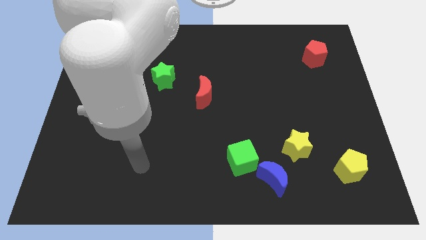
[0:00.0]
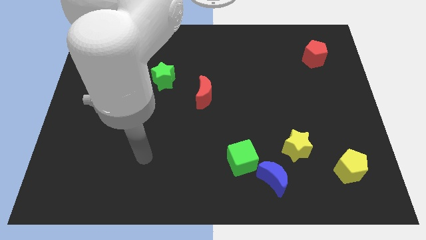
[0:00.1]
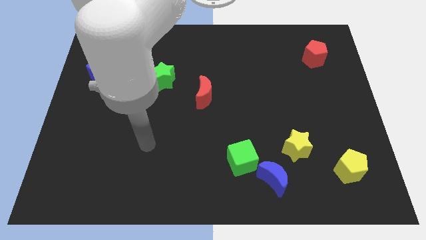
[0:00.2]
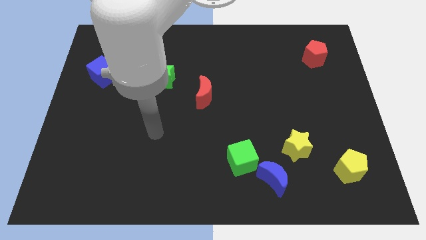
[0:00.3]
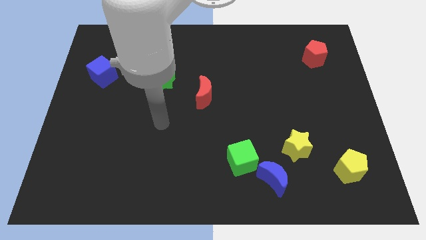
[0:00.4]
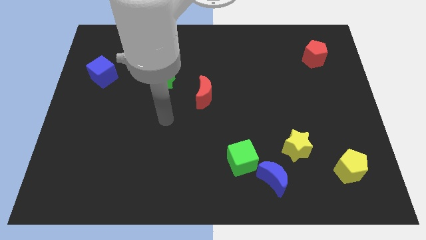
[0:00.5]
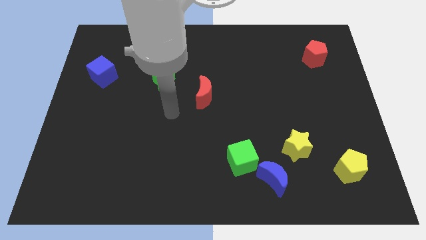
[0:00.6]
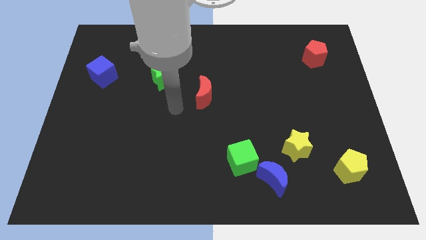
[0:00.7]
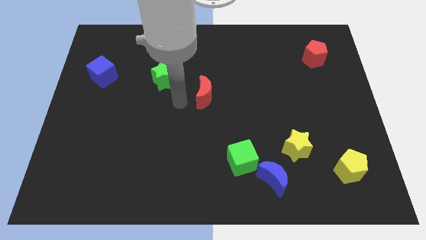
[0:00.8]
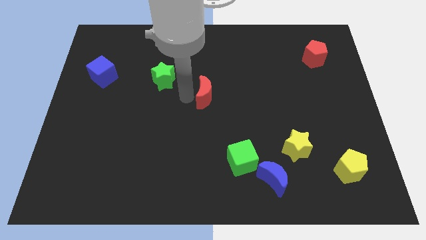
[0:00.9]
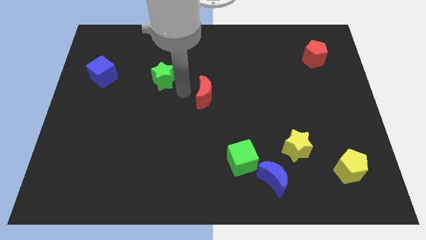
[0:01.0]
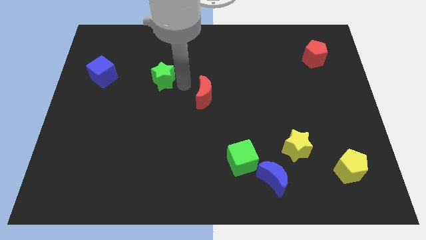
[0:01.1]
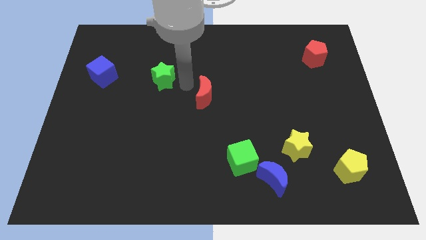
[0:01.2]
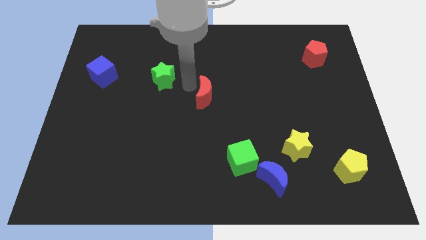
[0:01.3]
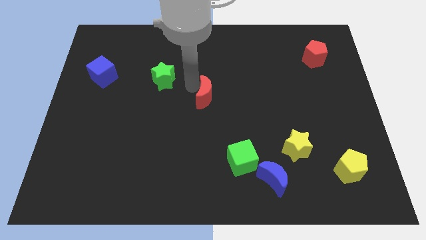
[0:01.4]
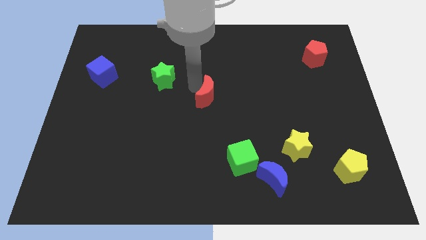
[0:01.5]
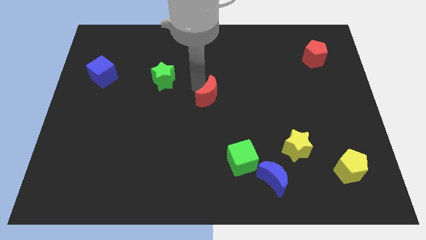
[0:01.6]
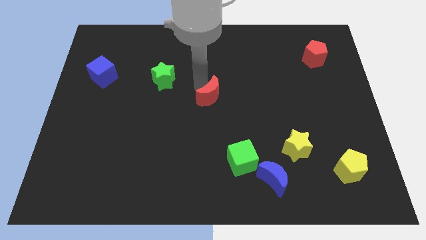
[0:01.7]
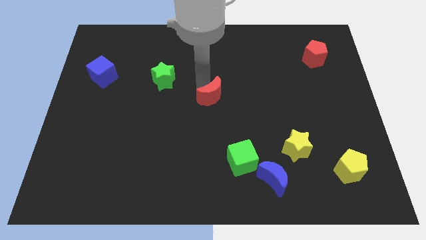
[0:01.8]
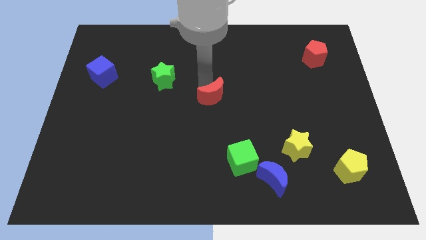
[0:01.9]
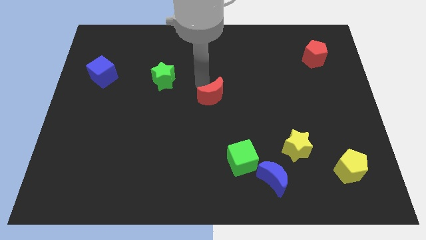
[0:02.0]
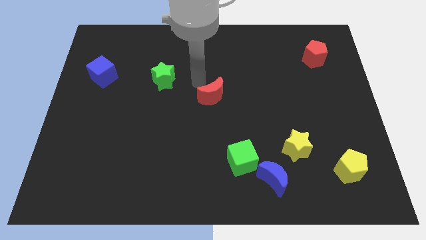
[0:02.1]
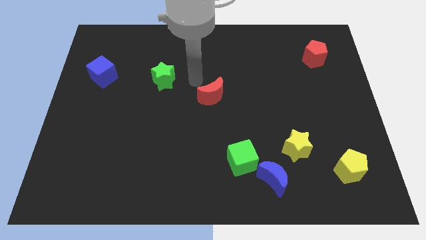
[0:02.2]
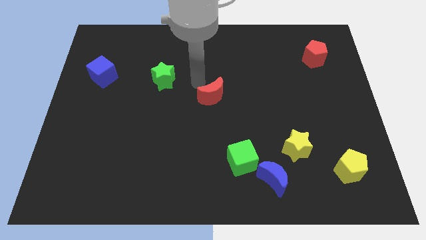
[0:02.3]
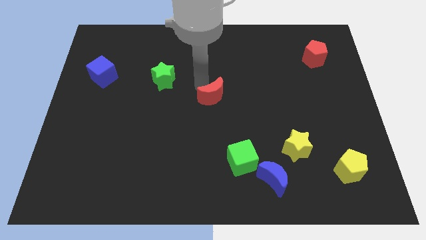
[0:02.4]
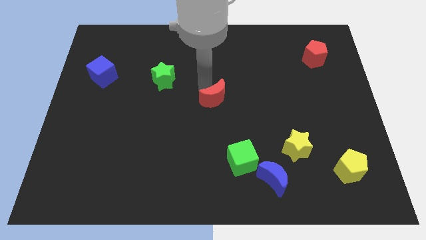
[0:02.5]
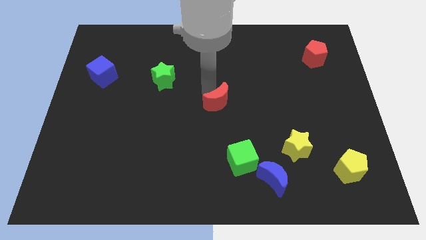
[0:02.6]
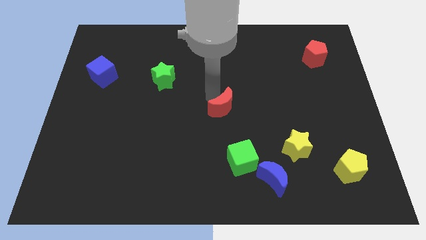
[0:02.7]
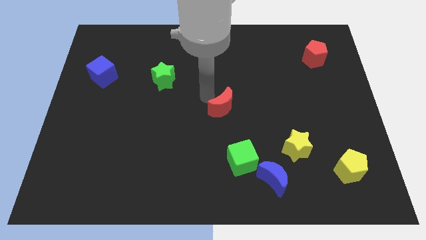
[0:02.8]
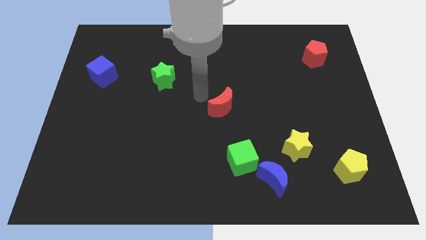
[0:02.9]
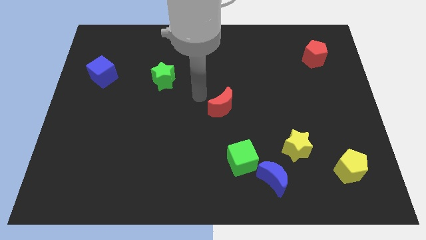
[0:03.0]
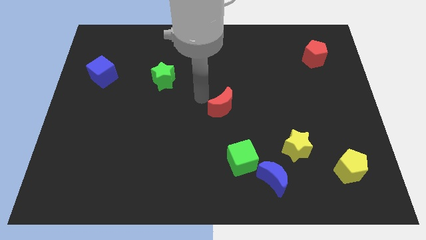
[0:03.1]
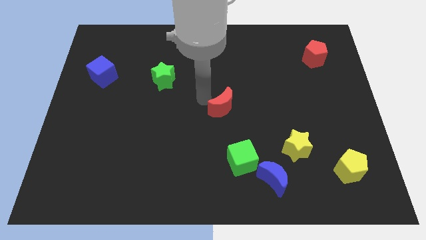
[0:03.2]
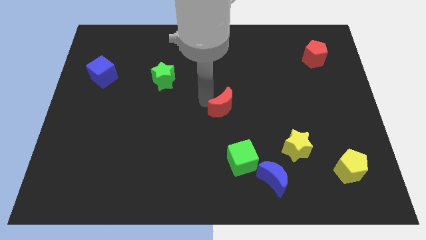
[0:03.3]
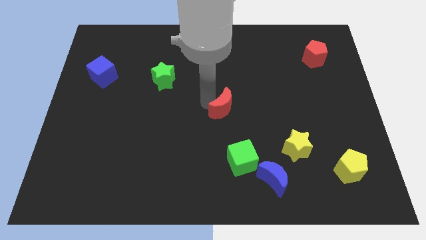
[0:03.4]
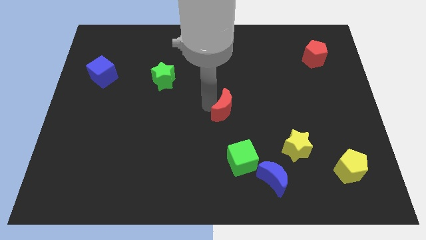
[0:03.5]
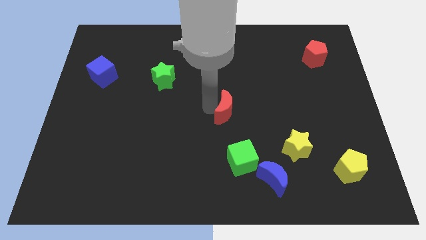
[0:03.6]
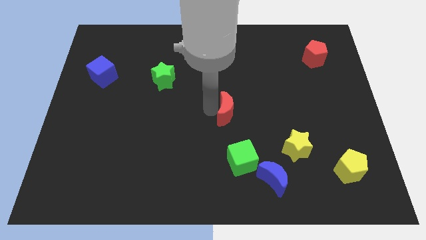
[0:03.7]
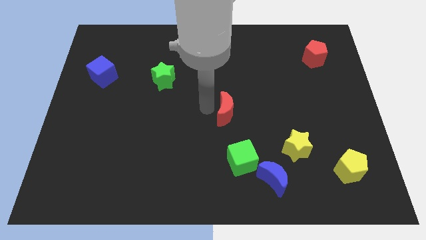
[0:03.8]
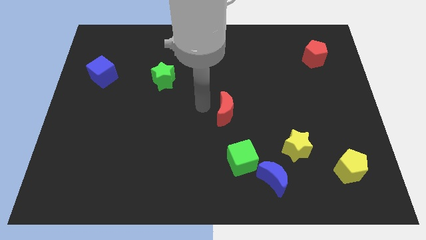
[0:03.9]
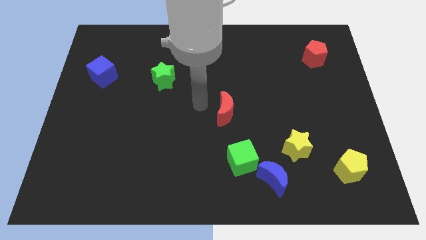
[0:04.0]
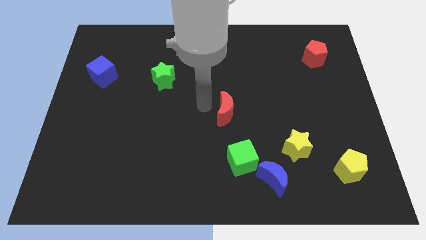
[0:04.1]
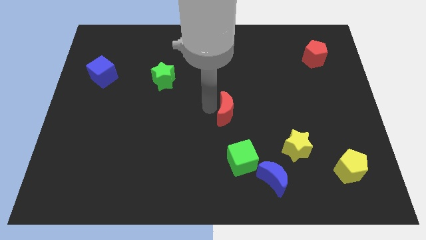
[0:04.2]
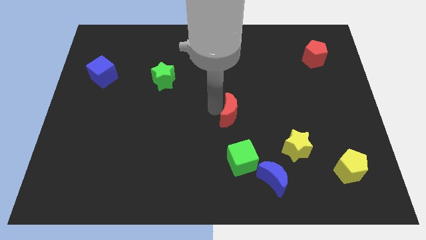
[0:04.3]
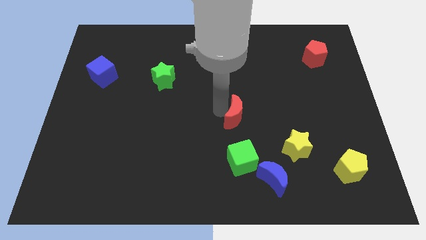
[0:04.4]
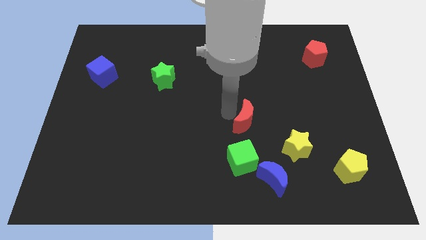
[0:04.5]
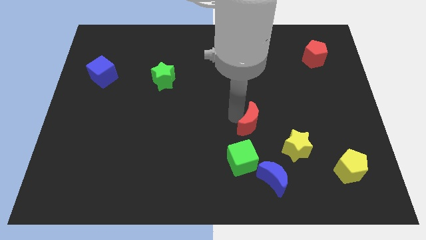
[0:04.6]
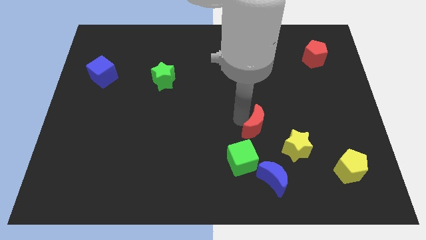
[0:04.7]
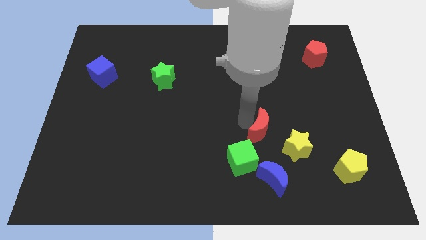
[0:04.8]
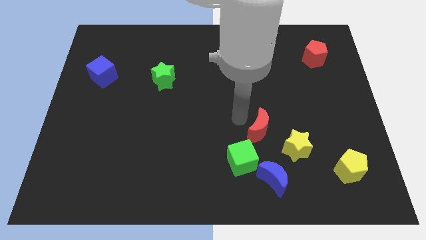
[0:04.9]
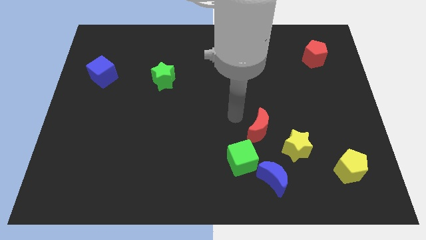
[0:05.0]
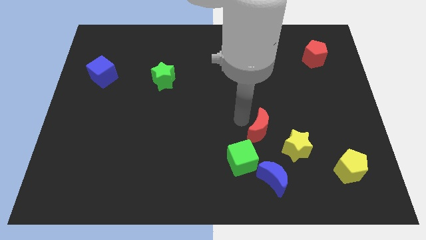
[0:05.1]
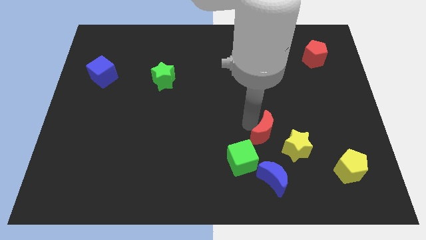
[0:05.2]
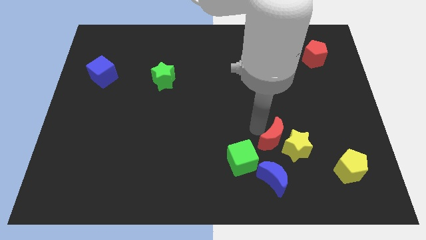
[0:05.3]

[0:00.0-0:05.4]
put the red moon next to the yellow star

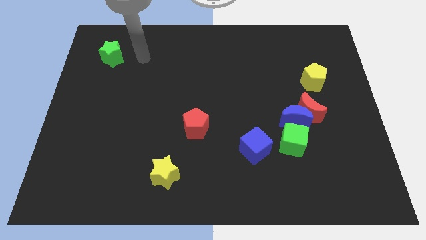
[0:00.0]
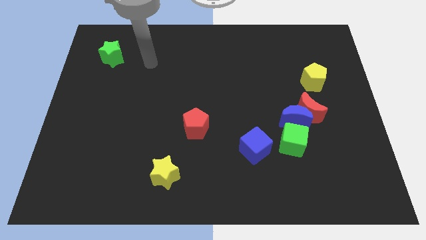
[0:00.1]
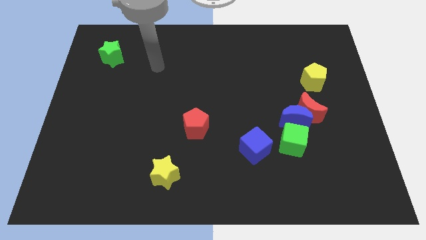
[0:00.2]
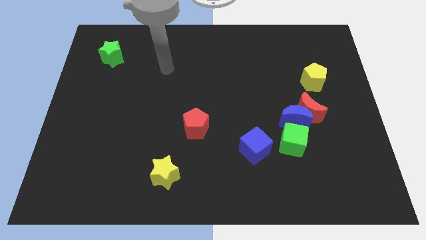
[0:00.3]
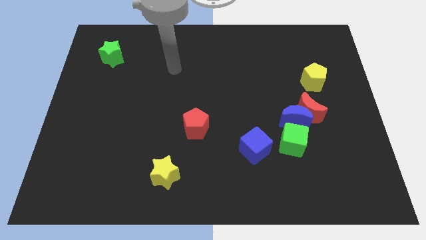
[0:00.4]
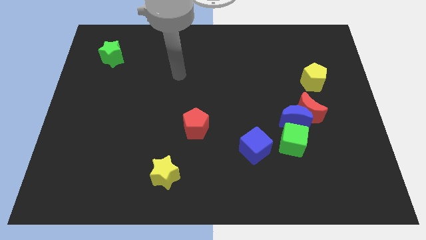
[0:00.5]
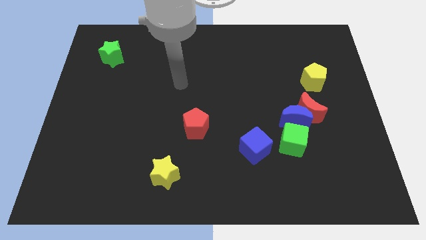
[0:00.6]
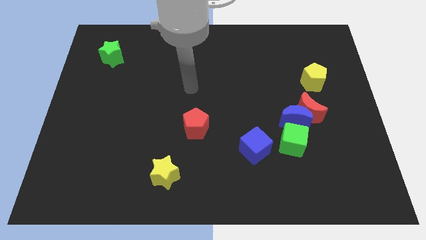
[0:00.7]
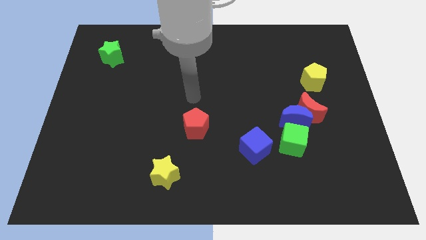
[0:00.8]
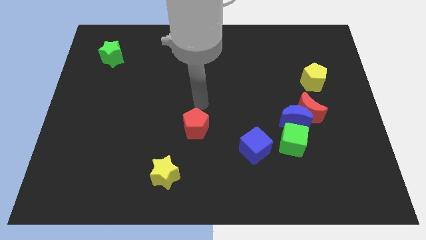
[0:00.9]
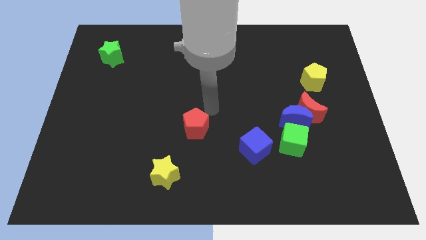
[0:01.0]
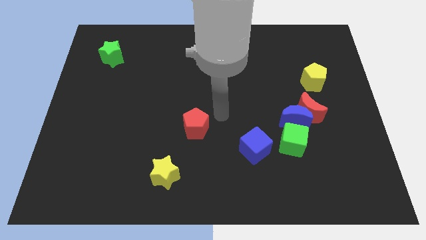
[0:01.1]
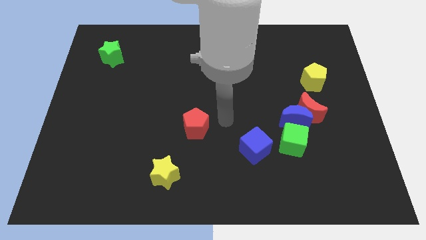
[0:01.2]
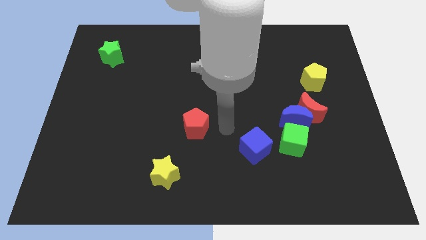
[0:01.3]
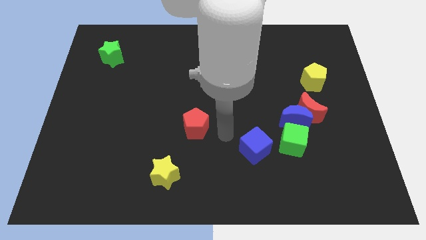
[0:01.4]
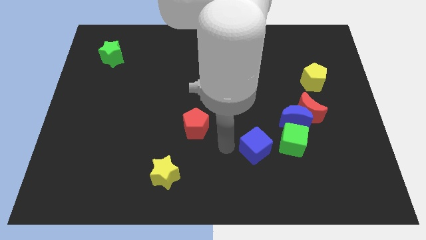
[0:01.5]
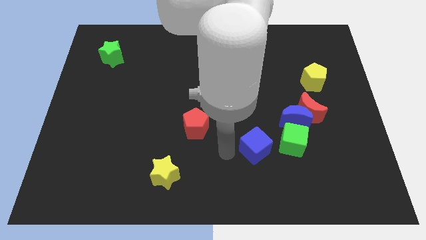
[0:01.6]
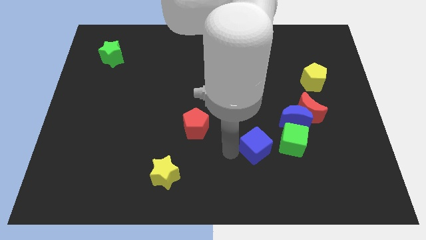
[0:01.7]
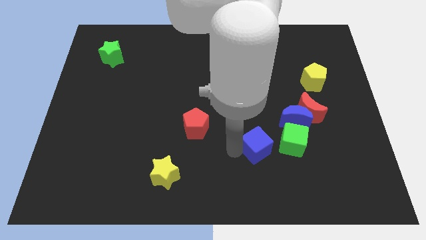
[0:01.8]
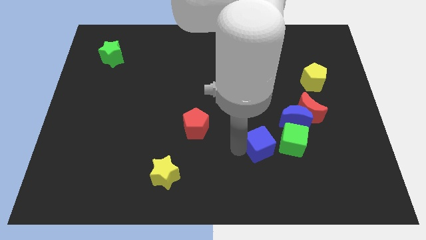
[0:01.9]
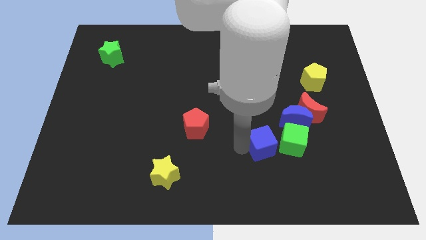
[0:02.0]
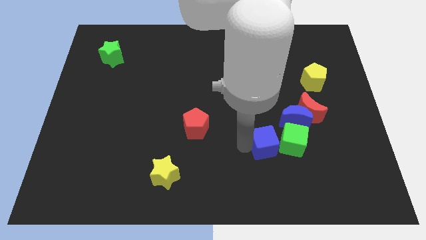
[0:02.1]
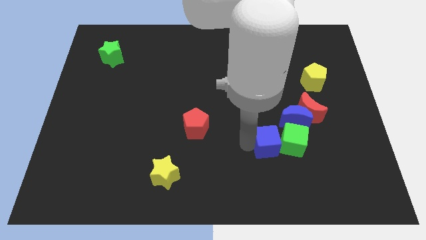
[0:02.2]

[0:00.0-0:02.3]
move the blue cube to the green cube
